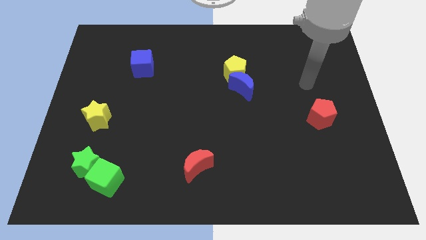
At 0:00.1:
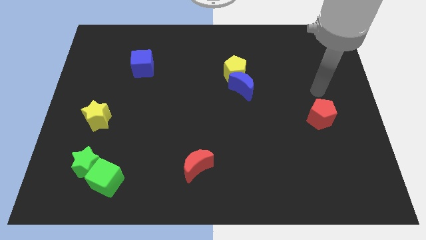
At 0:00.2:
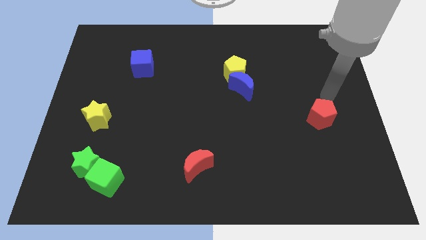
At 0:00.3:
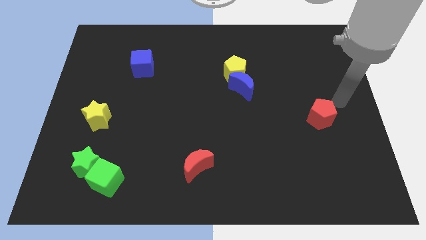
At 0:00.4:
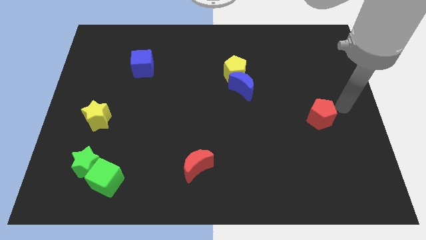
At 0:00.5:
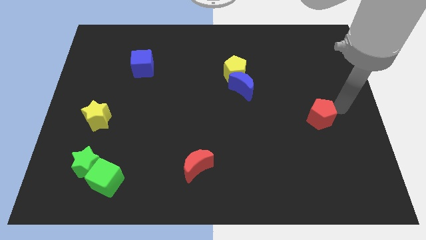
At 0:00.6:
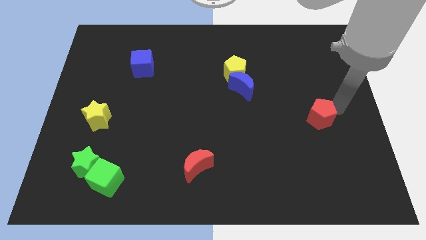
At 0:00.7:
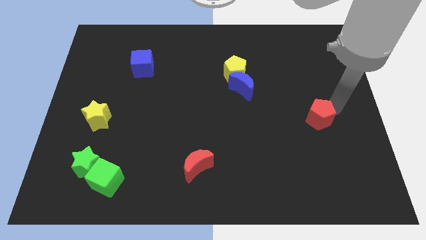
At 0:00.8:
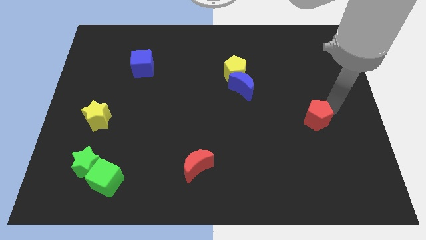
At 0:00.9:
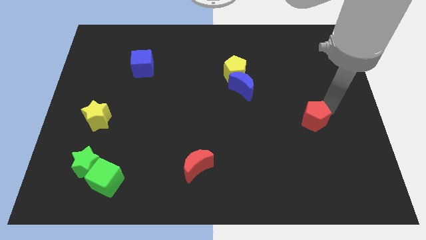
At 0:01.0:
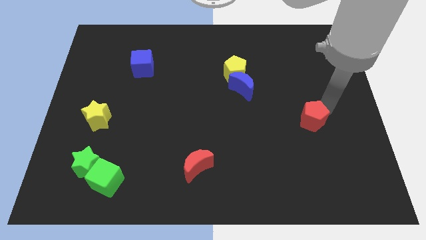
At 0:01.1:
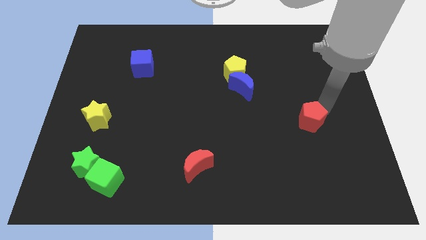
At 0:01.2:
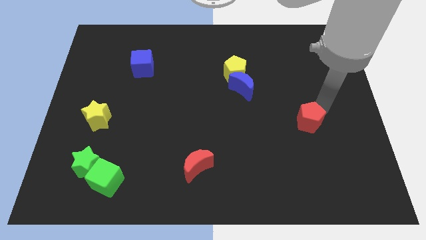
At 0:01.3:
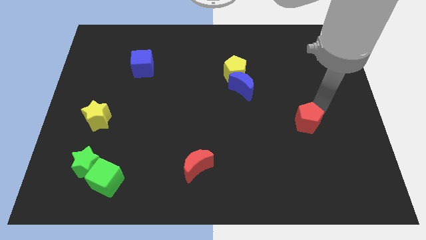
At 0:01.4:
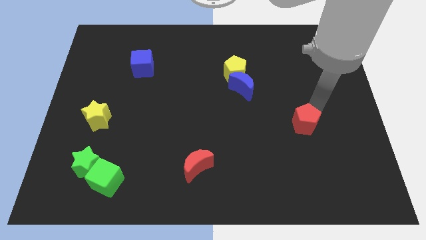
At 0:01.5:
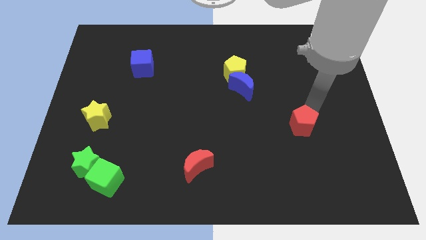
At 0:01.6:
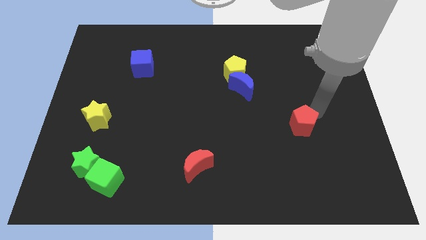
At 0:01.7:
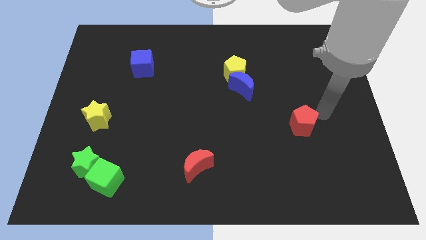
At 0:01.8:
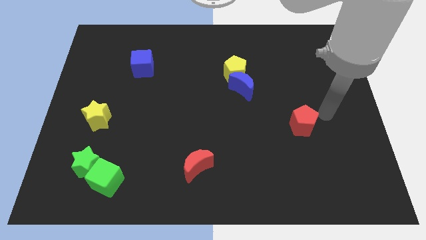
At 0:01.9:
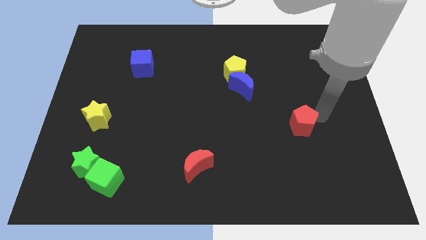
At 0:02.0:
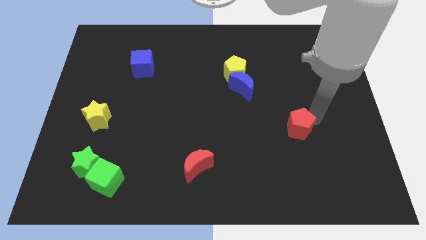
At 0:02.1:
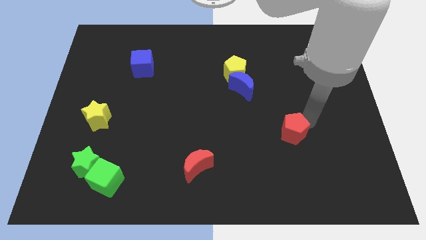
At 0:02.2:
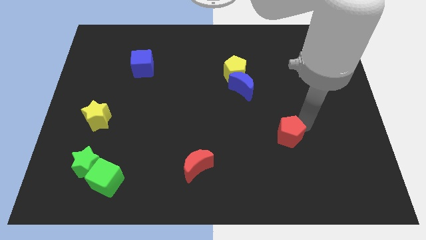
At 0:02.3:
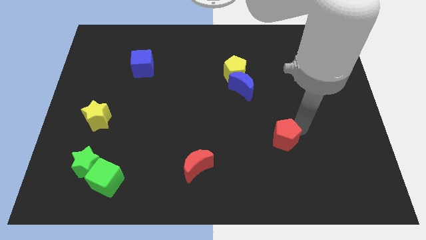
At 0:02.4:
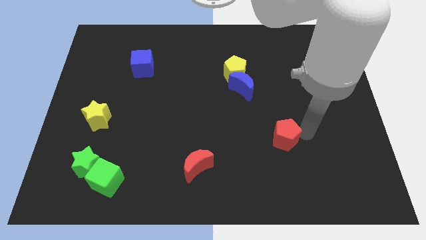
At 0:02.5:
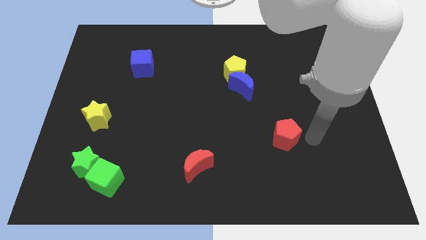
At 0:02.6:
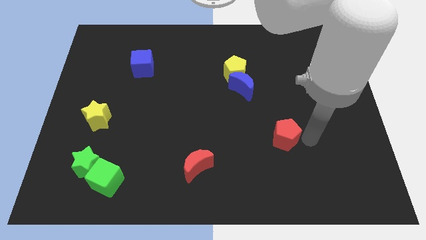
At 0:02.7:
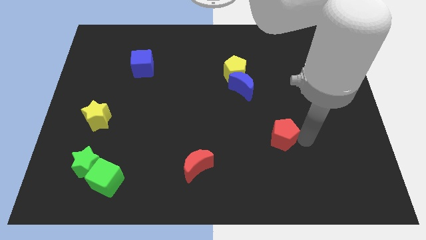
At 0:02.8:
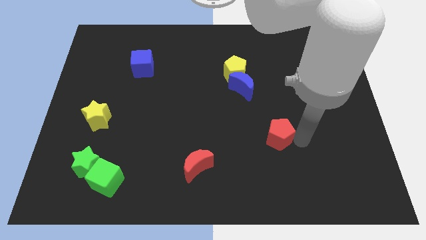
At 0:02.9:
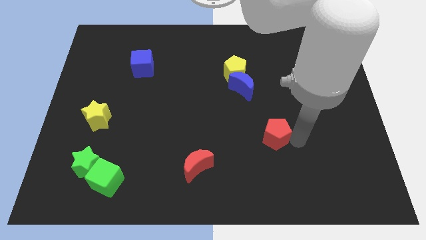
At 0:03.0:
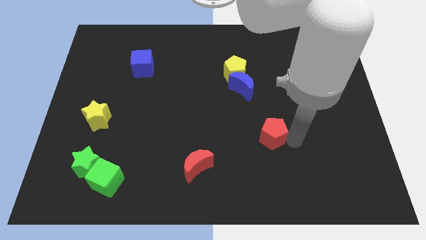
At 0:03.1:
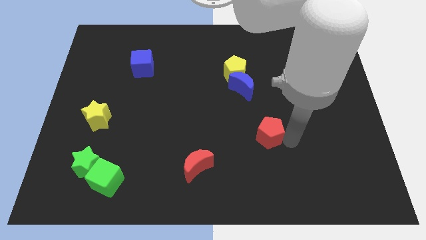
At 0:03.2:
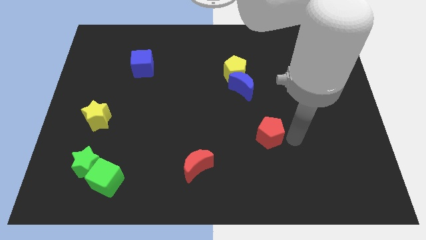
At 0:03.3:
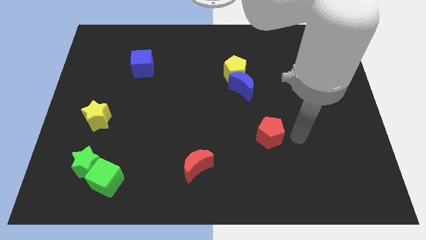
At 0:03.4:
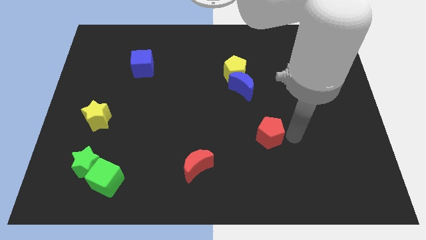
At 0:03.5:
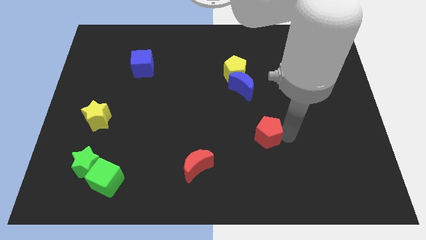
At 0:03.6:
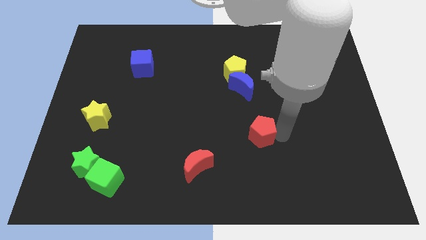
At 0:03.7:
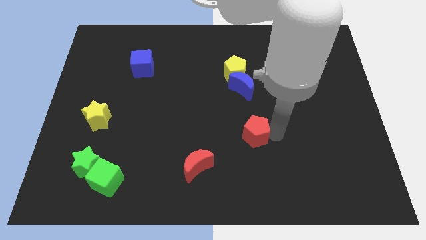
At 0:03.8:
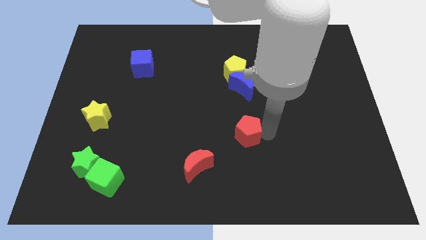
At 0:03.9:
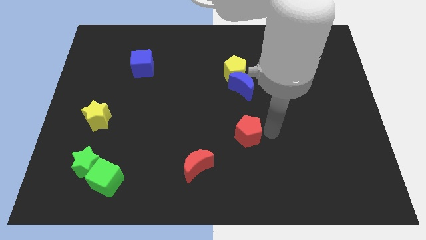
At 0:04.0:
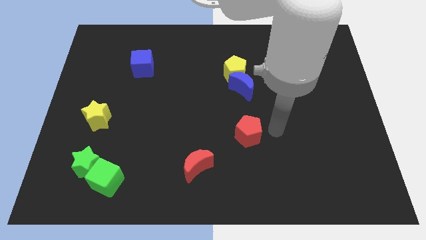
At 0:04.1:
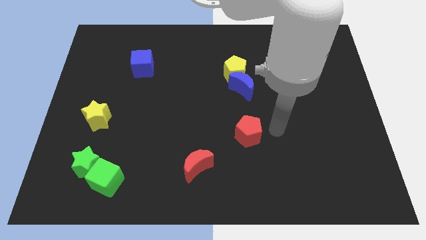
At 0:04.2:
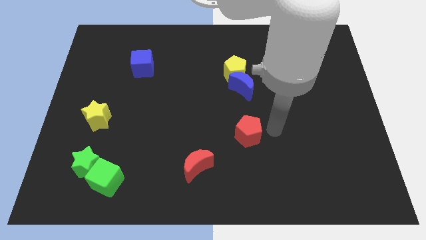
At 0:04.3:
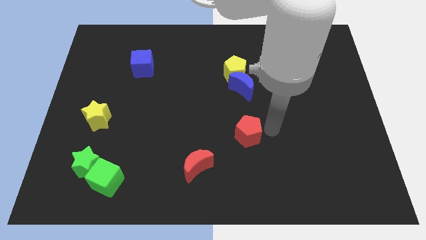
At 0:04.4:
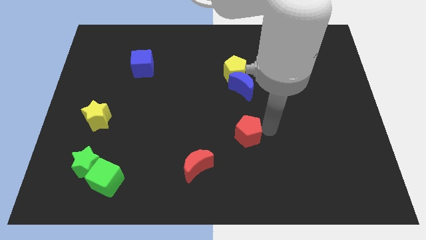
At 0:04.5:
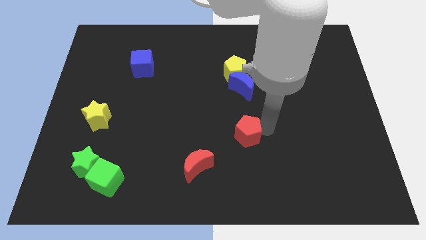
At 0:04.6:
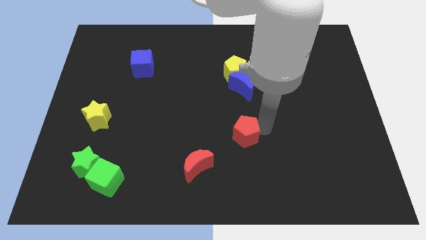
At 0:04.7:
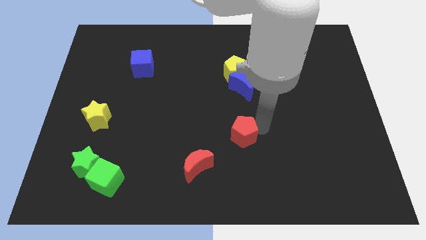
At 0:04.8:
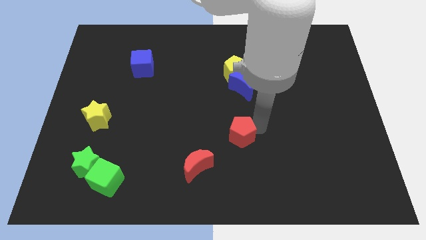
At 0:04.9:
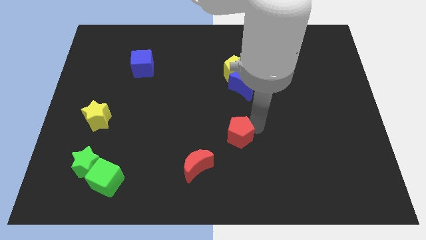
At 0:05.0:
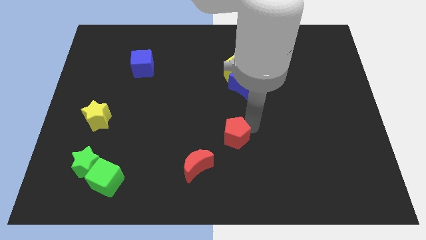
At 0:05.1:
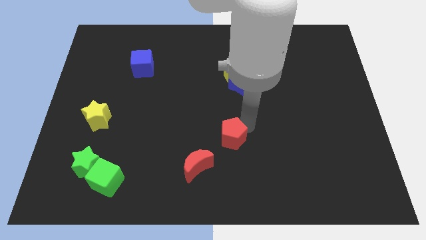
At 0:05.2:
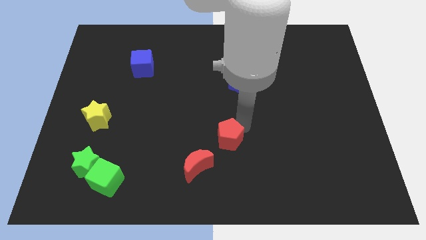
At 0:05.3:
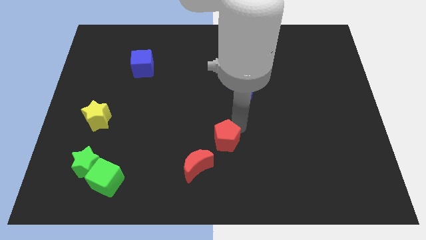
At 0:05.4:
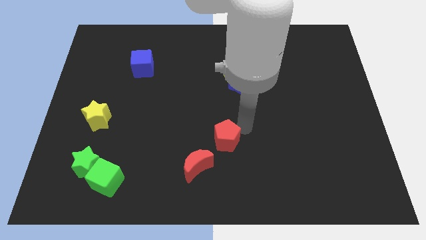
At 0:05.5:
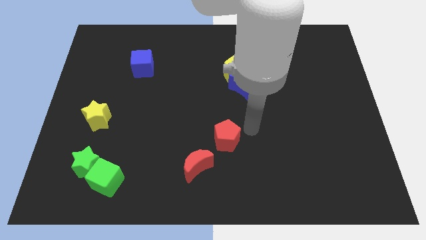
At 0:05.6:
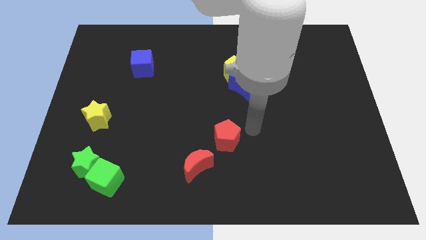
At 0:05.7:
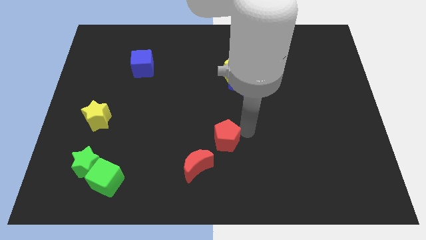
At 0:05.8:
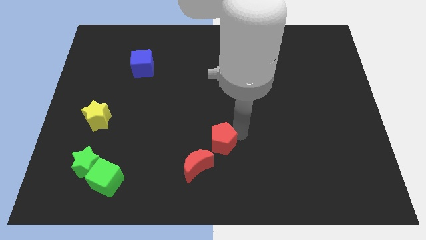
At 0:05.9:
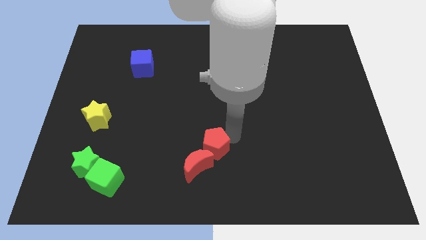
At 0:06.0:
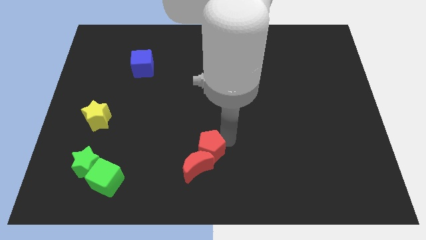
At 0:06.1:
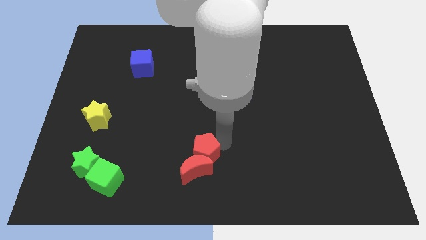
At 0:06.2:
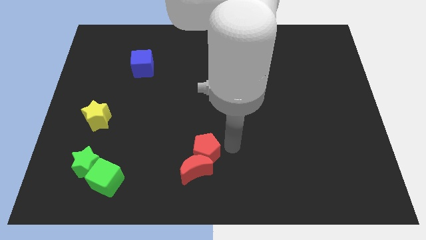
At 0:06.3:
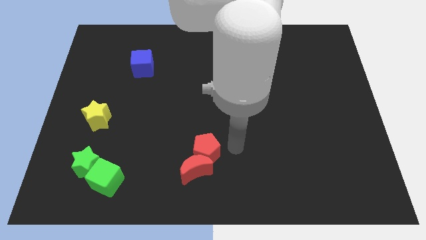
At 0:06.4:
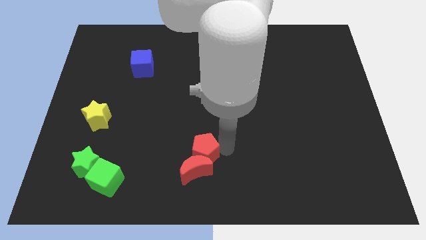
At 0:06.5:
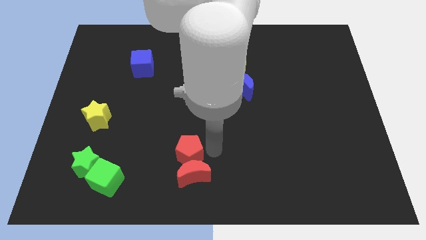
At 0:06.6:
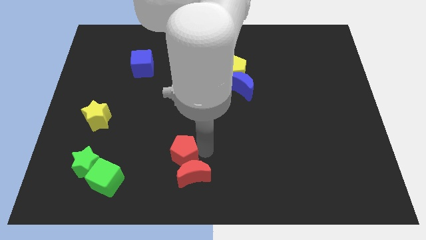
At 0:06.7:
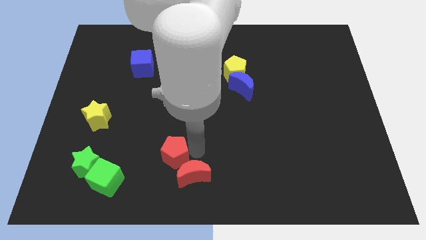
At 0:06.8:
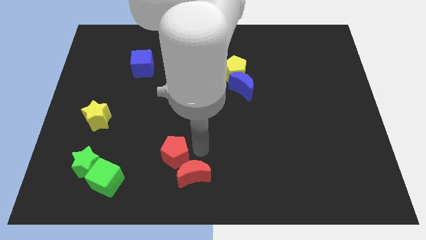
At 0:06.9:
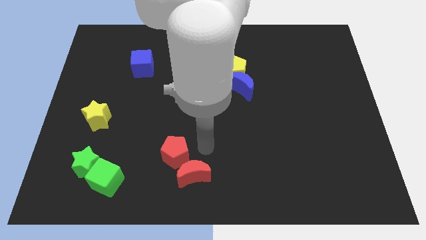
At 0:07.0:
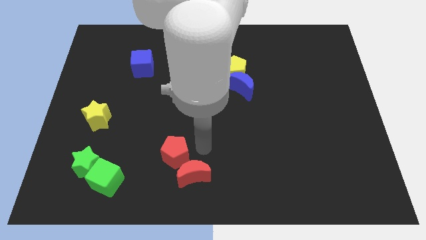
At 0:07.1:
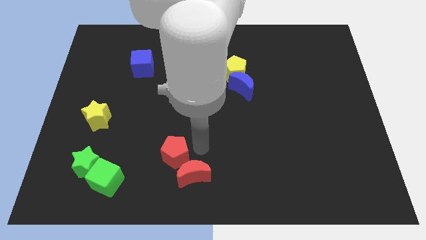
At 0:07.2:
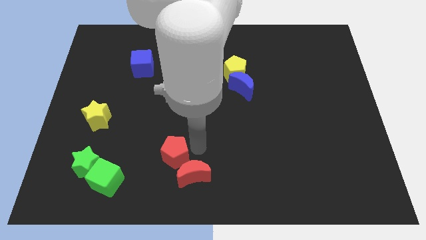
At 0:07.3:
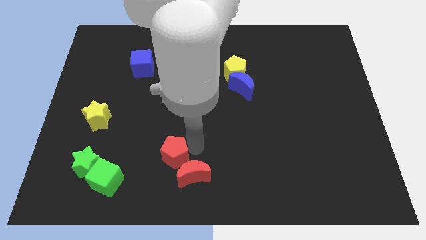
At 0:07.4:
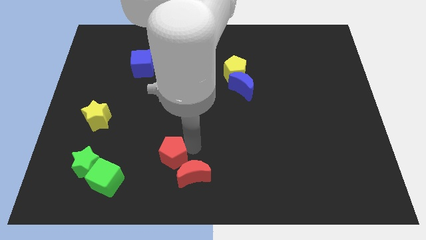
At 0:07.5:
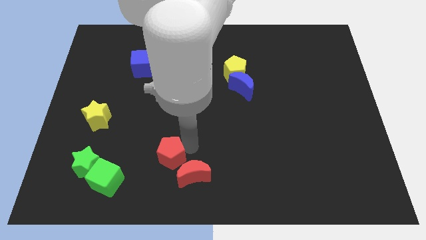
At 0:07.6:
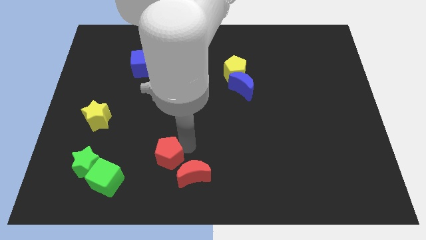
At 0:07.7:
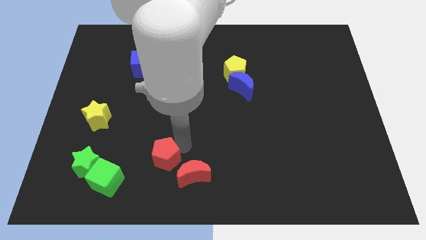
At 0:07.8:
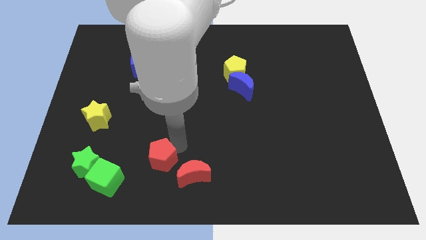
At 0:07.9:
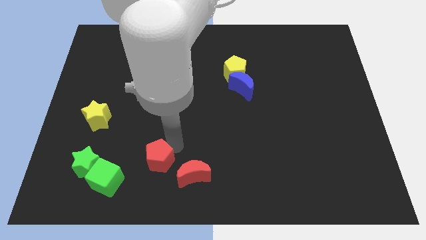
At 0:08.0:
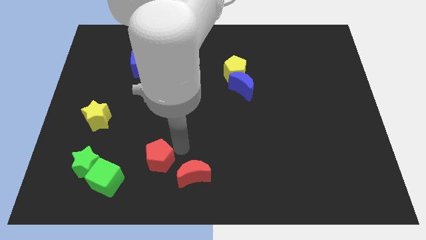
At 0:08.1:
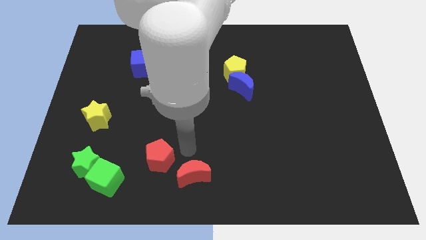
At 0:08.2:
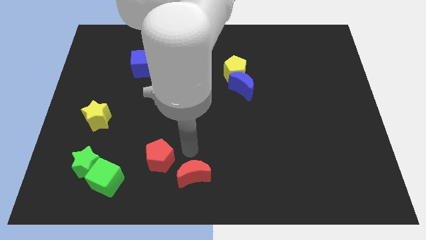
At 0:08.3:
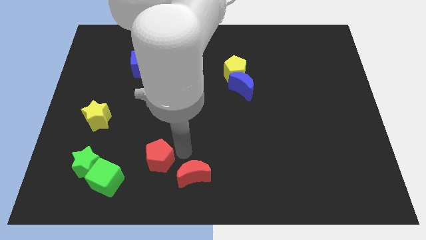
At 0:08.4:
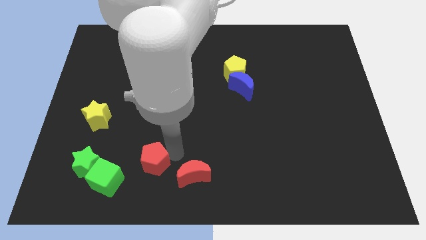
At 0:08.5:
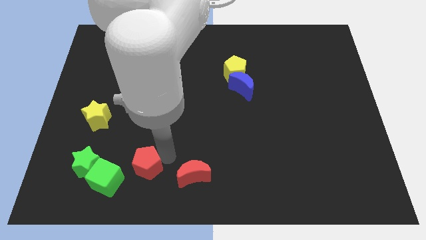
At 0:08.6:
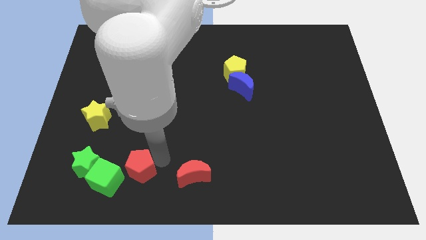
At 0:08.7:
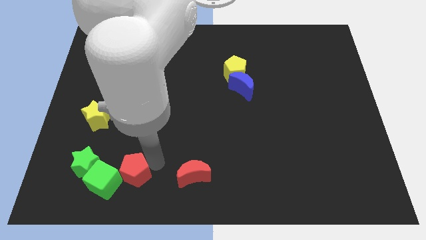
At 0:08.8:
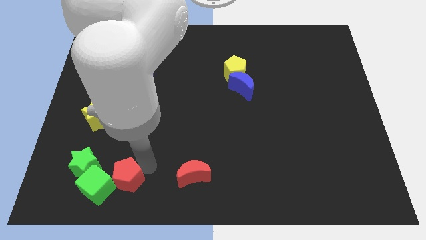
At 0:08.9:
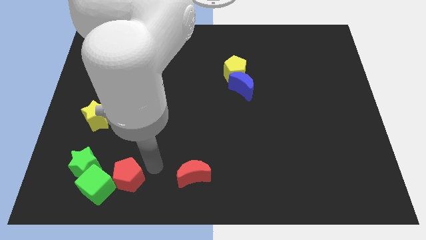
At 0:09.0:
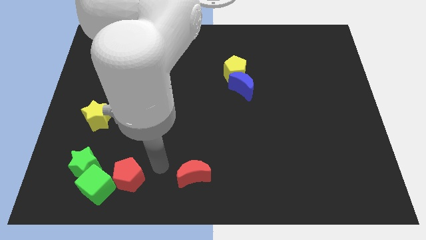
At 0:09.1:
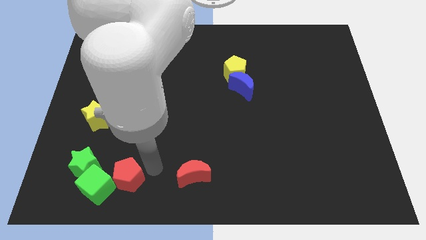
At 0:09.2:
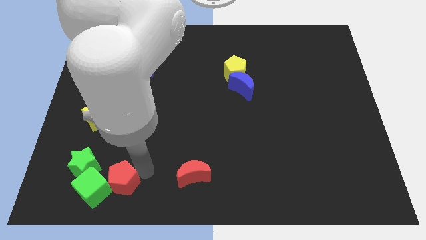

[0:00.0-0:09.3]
put the red pentagon close to the green cube
